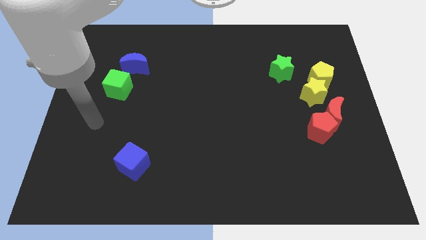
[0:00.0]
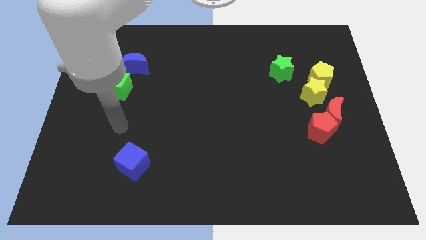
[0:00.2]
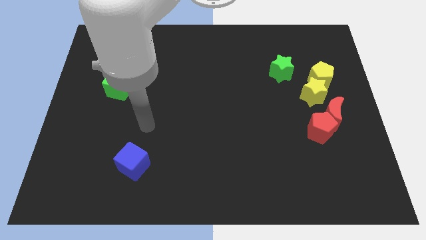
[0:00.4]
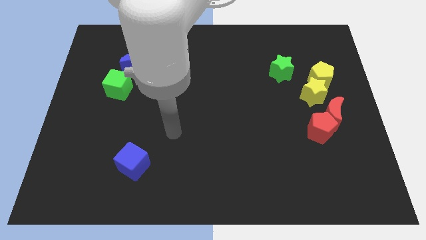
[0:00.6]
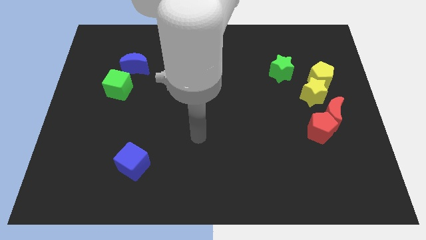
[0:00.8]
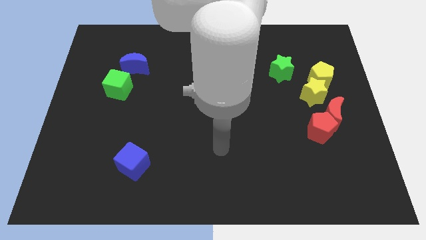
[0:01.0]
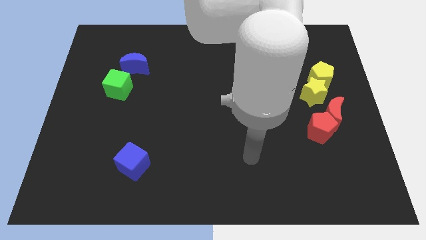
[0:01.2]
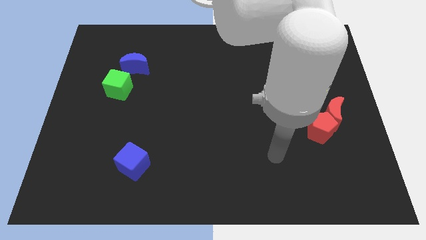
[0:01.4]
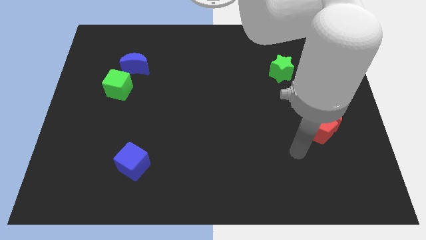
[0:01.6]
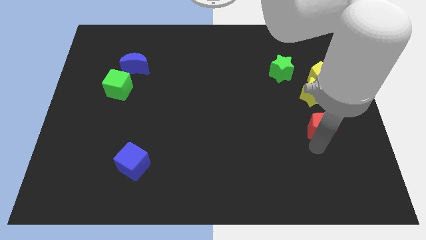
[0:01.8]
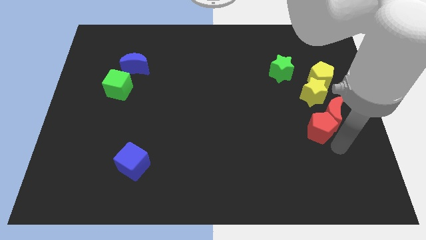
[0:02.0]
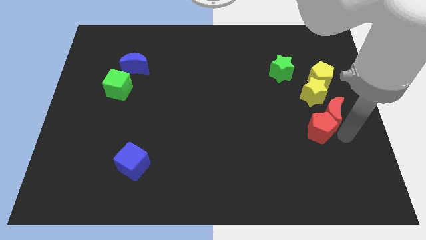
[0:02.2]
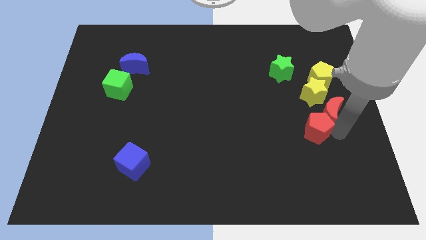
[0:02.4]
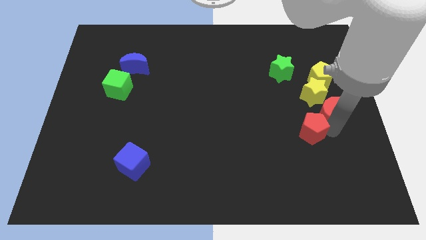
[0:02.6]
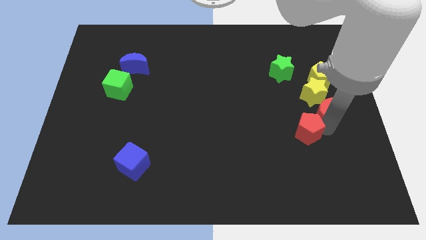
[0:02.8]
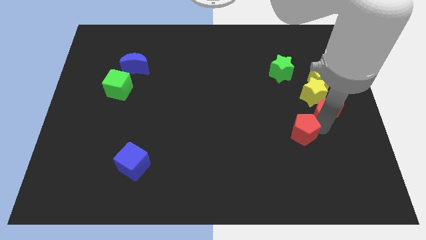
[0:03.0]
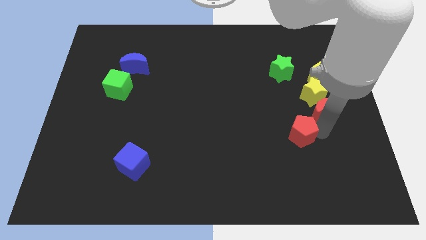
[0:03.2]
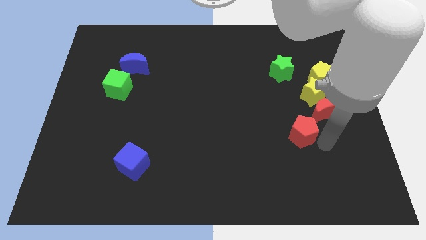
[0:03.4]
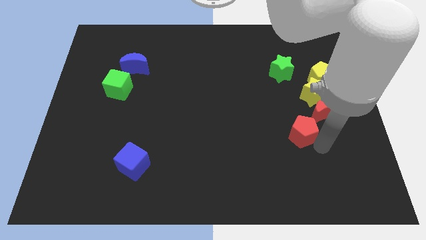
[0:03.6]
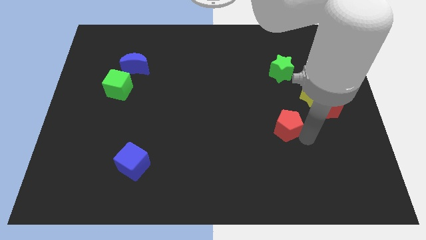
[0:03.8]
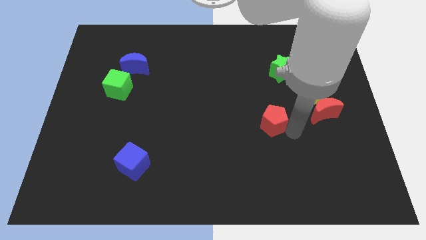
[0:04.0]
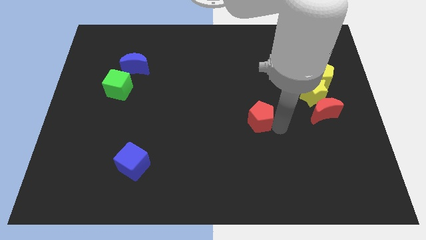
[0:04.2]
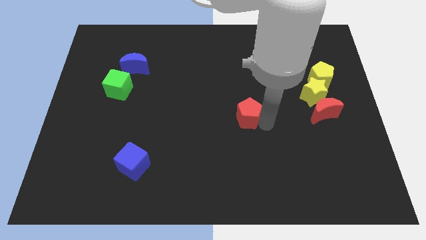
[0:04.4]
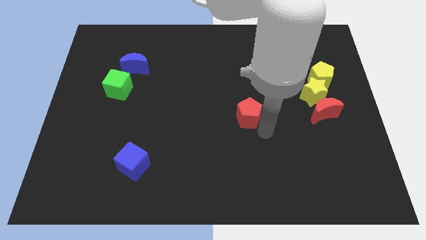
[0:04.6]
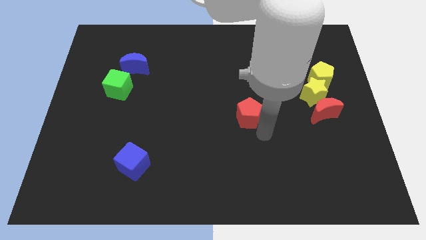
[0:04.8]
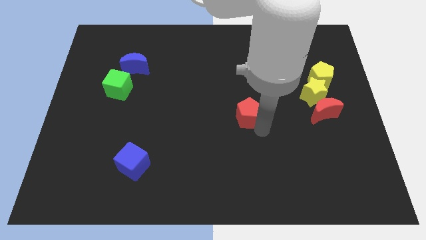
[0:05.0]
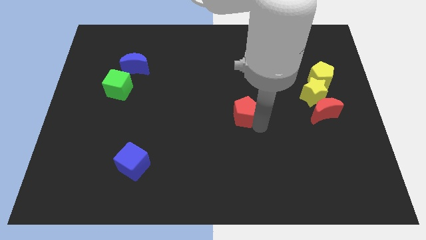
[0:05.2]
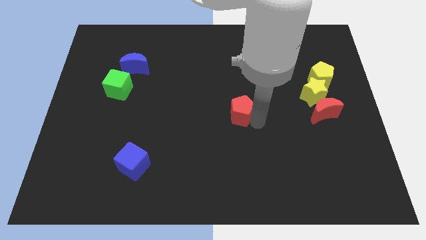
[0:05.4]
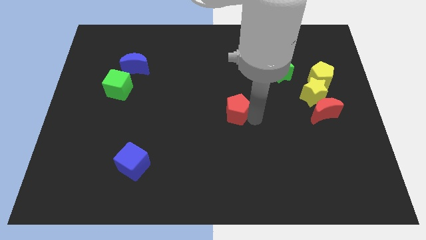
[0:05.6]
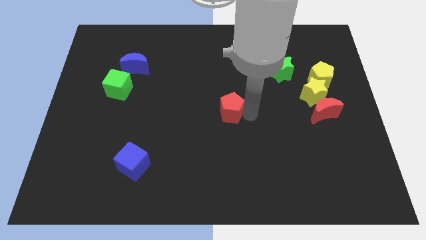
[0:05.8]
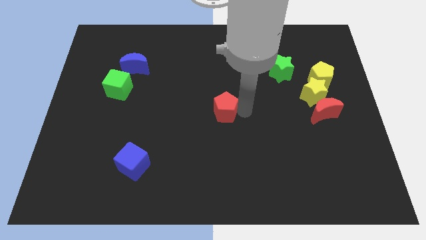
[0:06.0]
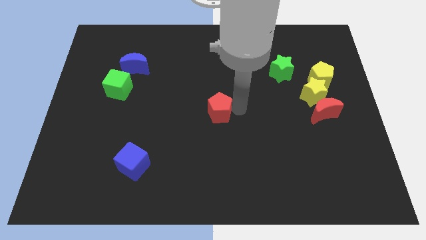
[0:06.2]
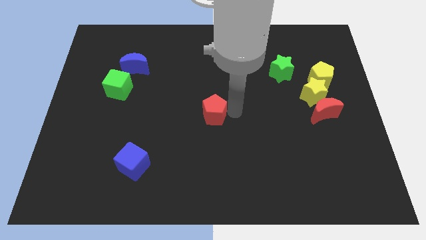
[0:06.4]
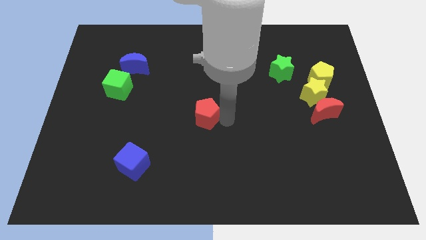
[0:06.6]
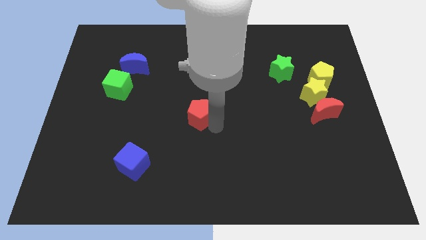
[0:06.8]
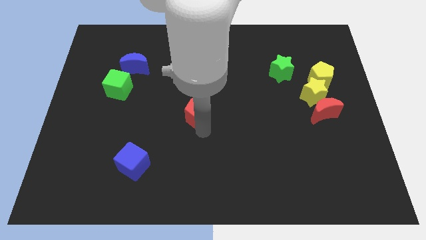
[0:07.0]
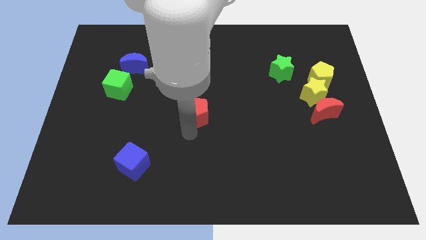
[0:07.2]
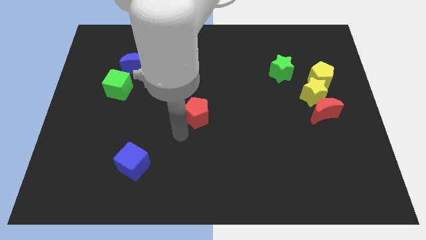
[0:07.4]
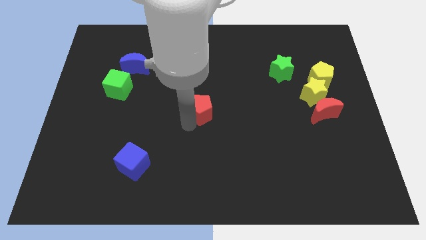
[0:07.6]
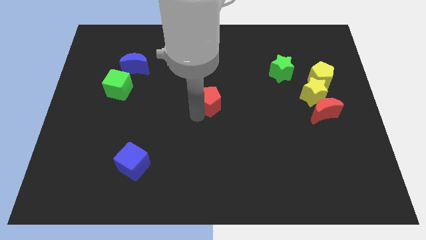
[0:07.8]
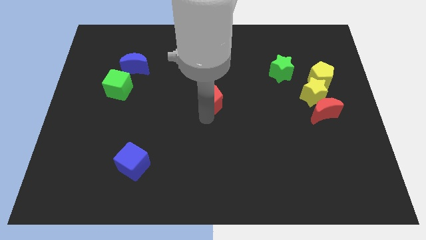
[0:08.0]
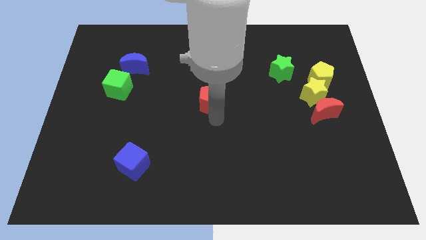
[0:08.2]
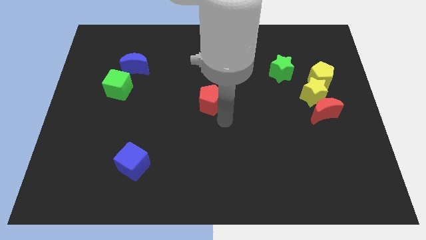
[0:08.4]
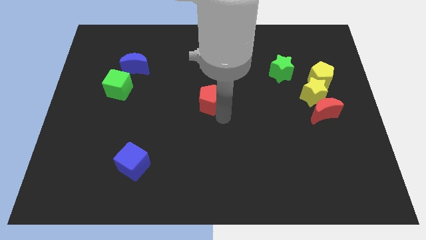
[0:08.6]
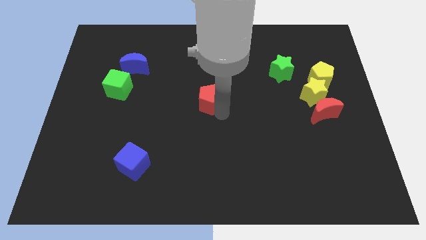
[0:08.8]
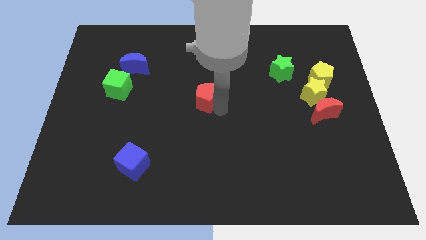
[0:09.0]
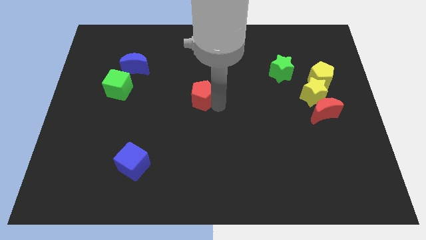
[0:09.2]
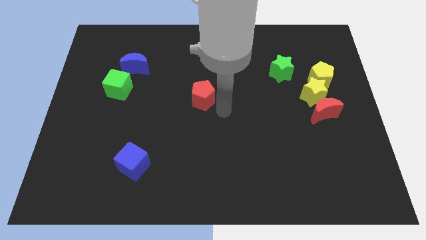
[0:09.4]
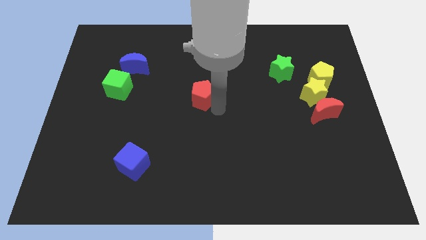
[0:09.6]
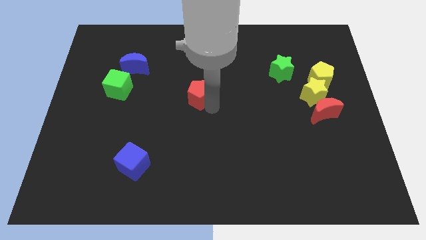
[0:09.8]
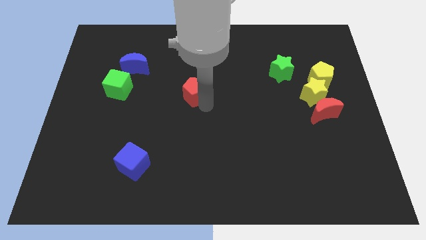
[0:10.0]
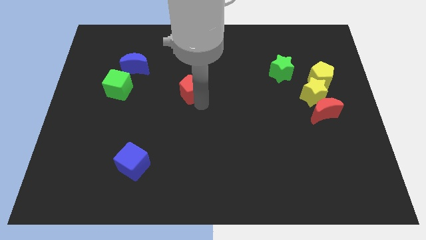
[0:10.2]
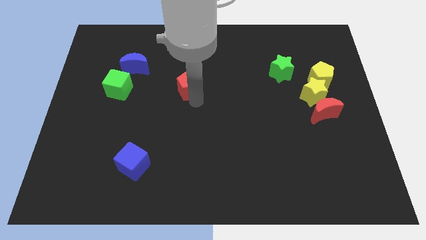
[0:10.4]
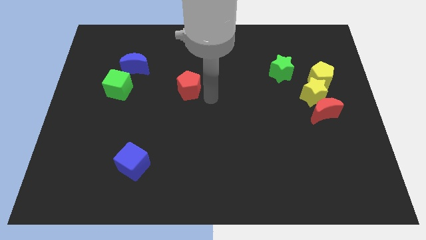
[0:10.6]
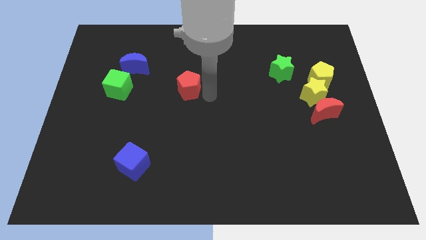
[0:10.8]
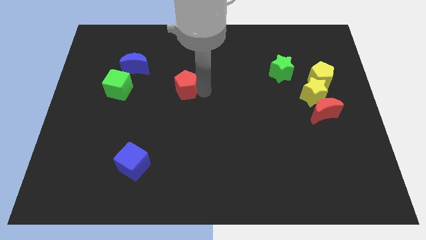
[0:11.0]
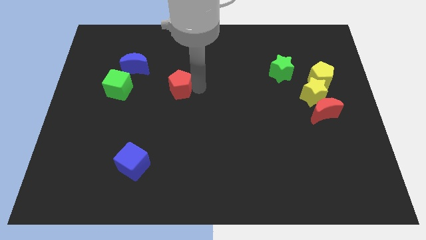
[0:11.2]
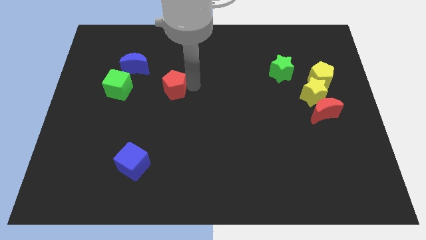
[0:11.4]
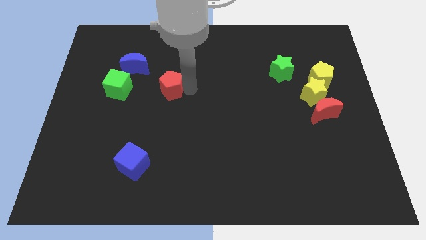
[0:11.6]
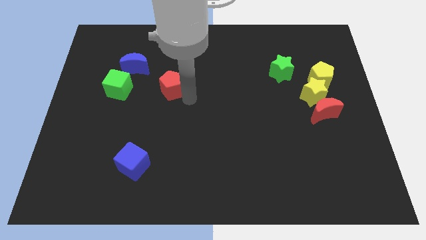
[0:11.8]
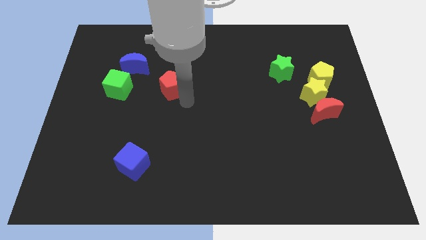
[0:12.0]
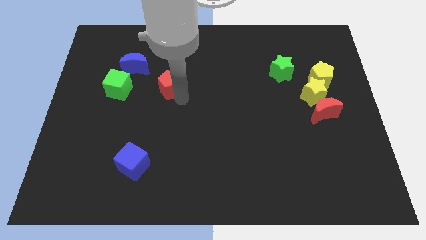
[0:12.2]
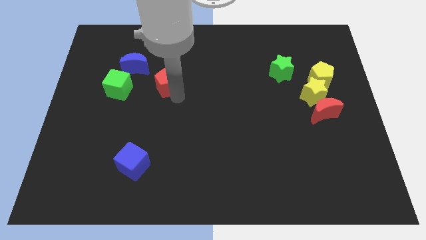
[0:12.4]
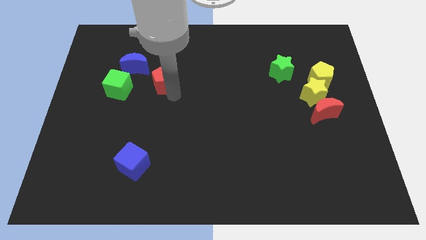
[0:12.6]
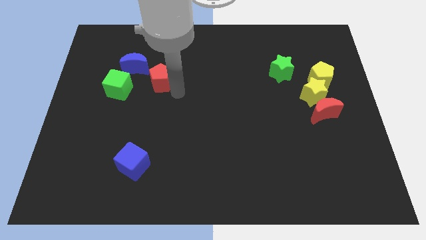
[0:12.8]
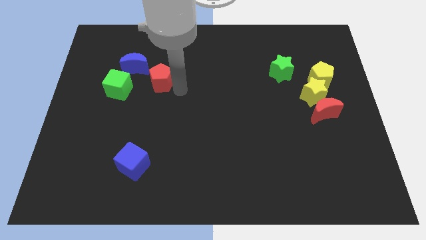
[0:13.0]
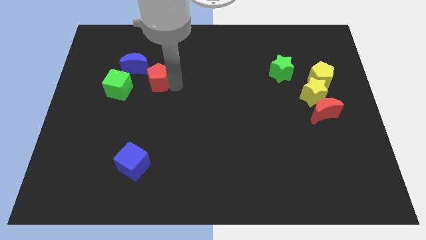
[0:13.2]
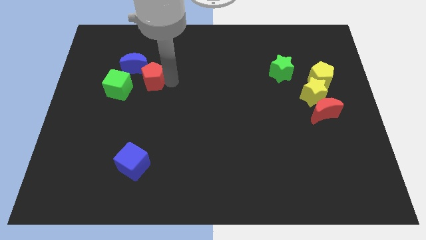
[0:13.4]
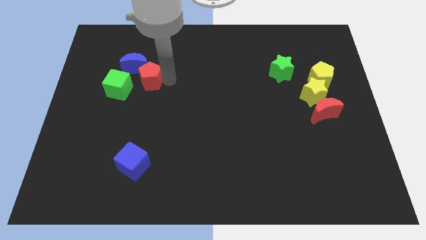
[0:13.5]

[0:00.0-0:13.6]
put the red pentagon close to the blue moon

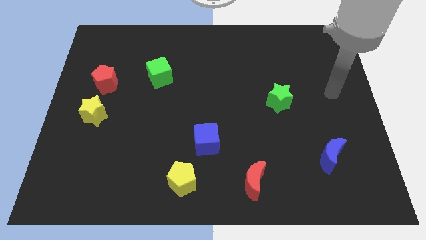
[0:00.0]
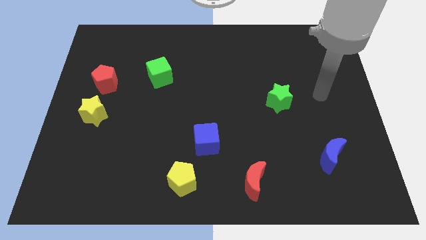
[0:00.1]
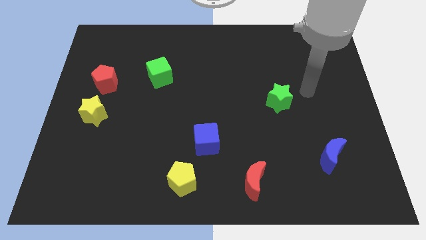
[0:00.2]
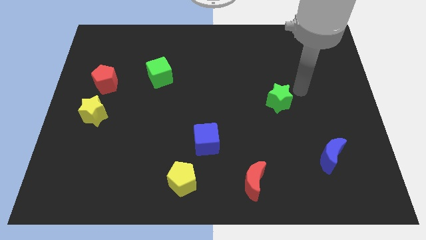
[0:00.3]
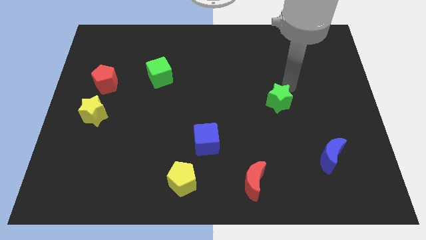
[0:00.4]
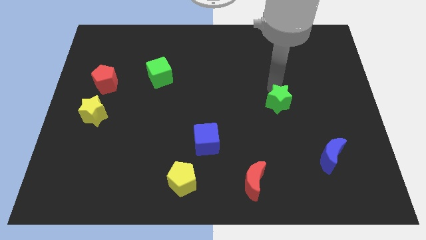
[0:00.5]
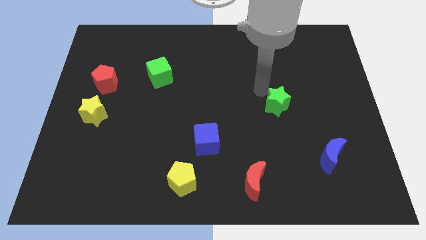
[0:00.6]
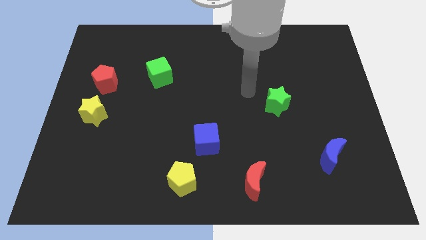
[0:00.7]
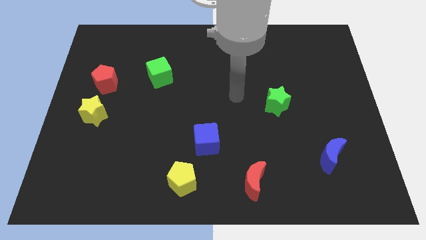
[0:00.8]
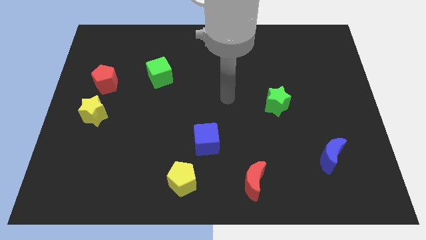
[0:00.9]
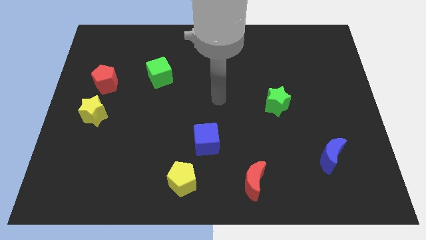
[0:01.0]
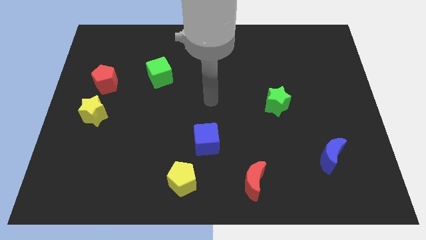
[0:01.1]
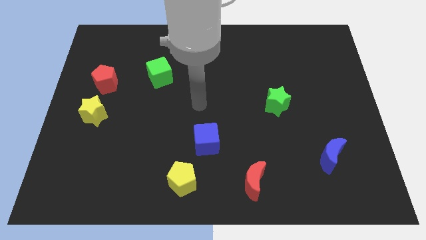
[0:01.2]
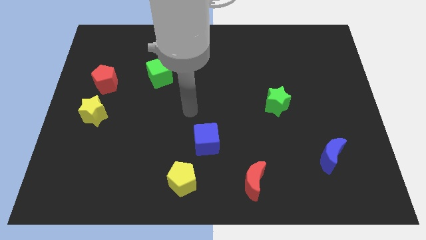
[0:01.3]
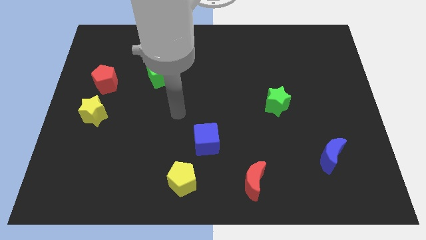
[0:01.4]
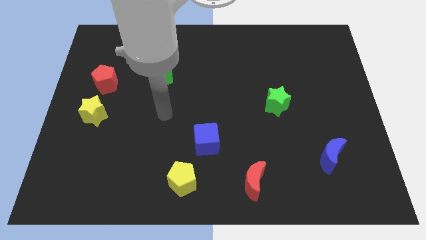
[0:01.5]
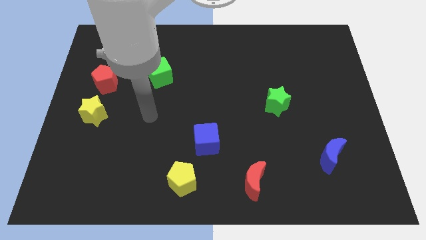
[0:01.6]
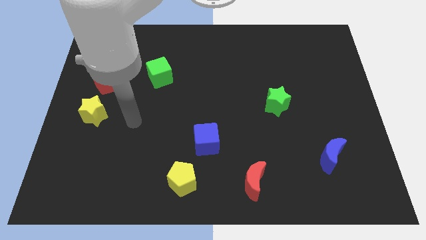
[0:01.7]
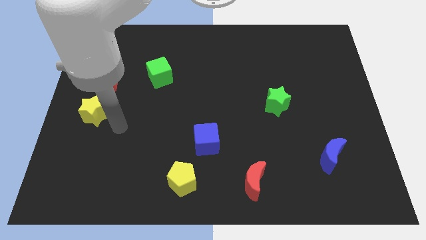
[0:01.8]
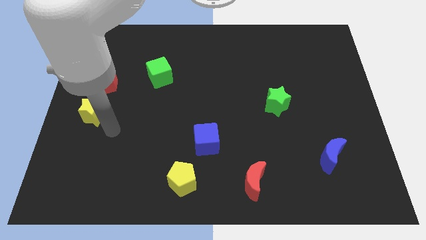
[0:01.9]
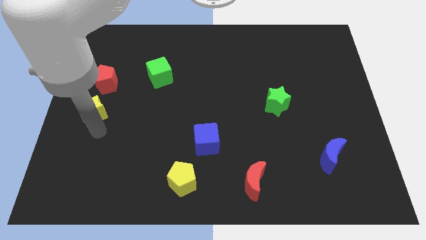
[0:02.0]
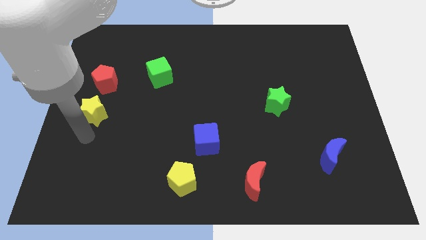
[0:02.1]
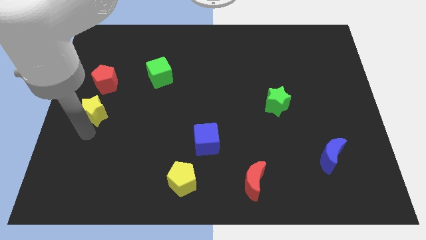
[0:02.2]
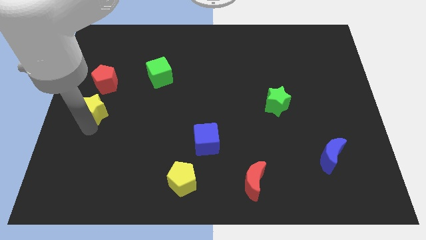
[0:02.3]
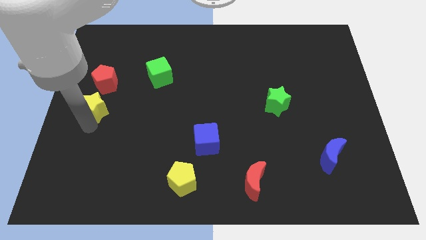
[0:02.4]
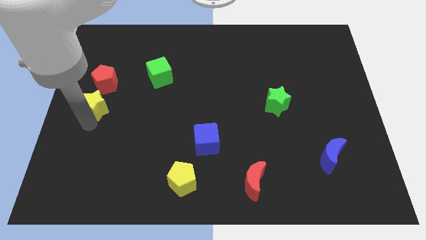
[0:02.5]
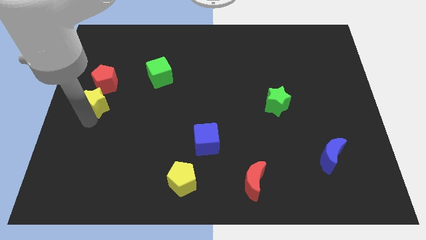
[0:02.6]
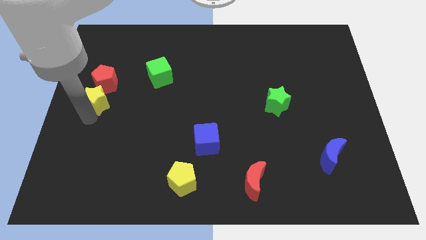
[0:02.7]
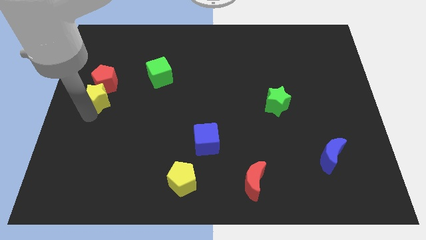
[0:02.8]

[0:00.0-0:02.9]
move the yellow star close to the red pentagon
